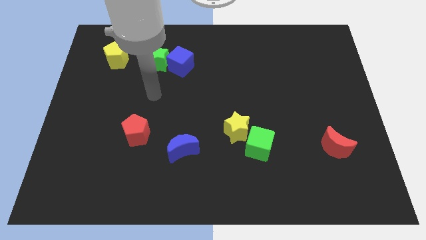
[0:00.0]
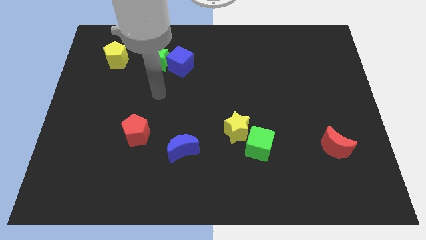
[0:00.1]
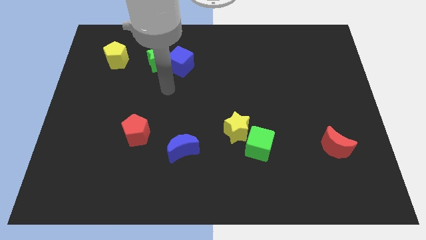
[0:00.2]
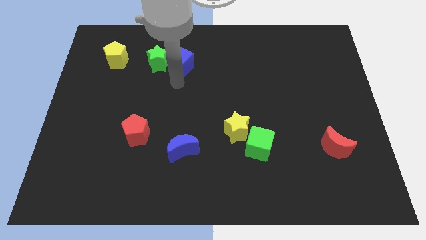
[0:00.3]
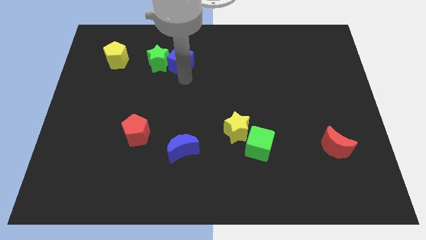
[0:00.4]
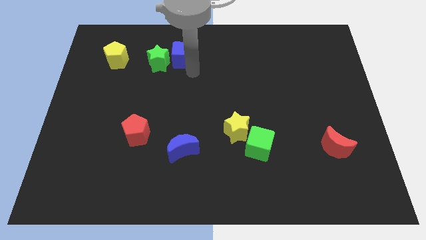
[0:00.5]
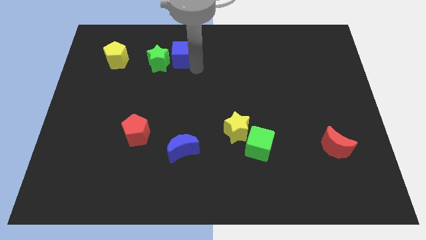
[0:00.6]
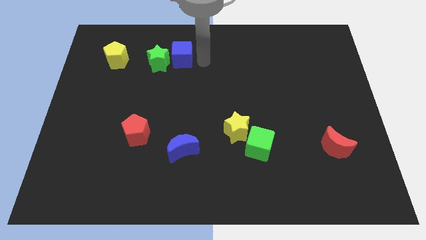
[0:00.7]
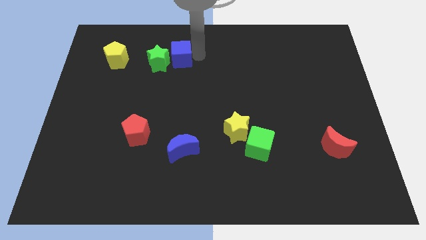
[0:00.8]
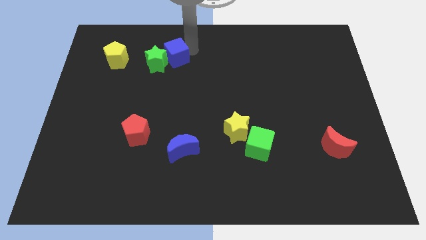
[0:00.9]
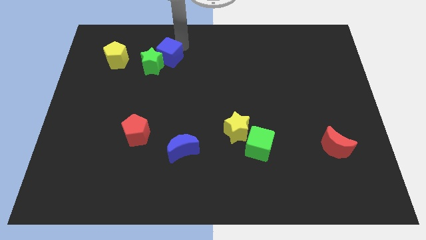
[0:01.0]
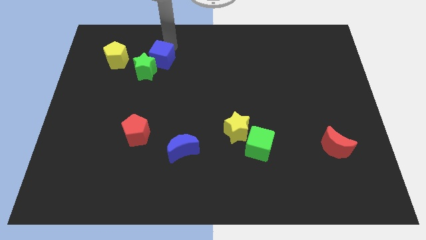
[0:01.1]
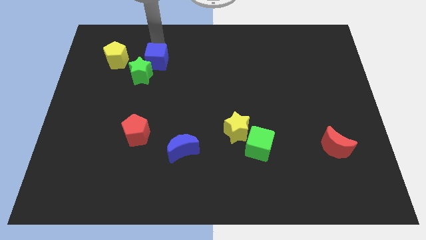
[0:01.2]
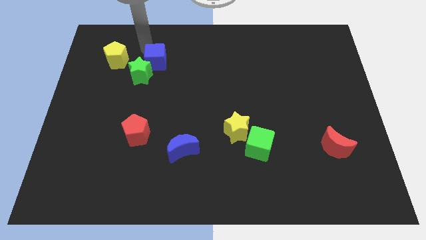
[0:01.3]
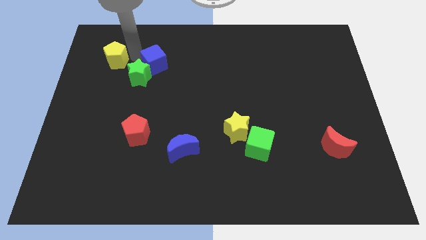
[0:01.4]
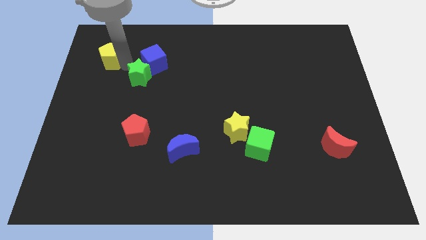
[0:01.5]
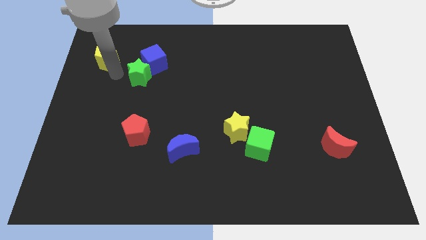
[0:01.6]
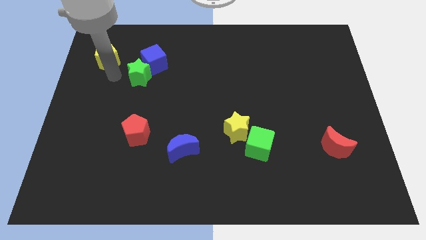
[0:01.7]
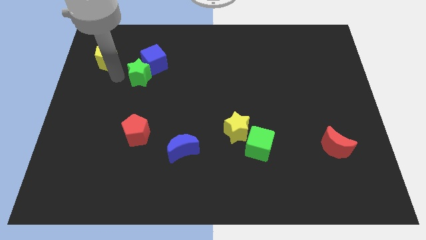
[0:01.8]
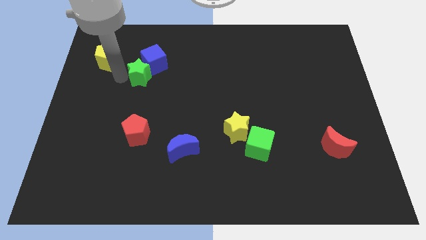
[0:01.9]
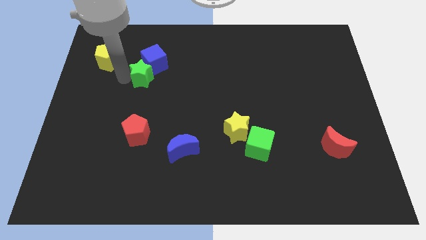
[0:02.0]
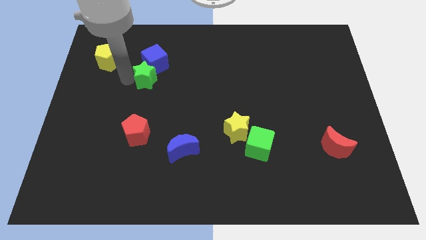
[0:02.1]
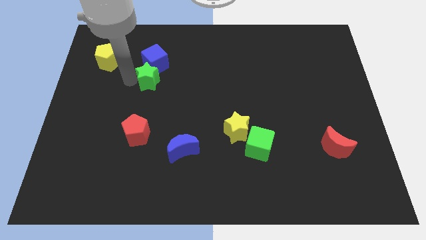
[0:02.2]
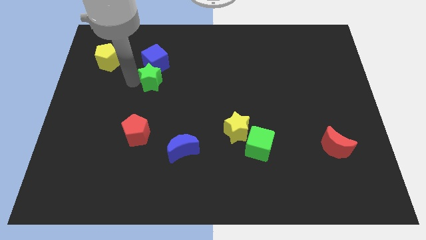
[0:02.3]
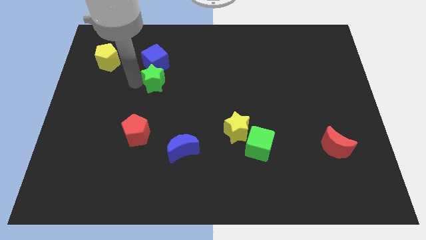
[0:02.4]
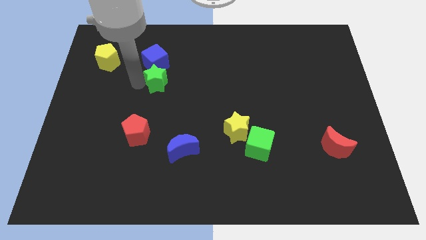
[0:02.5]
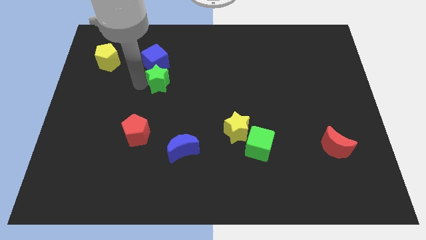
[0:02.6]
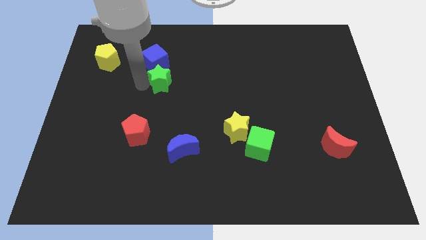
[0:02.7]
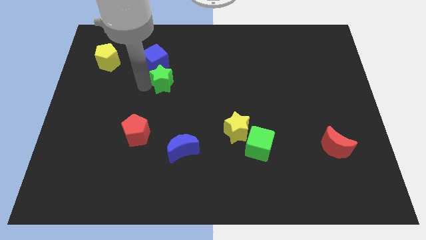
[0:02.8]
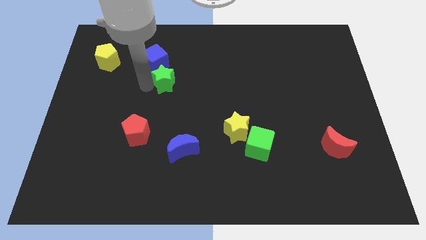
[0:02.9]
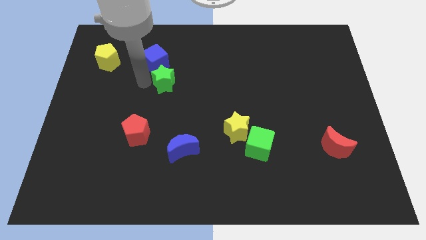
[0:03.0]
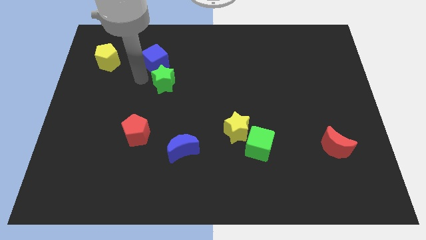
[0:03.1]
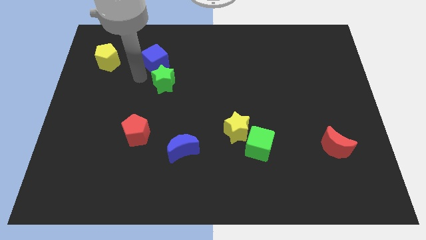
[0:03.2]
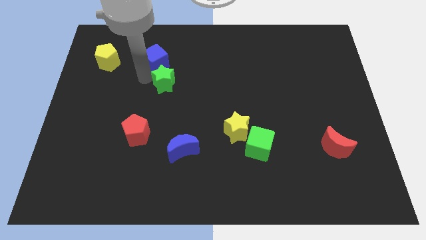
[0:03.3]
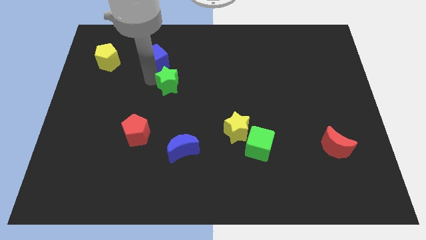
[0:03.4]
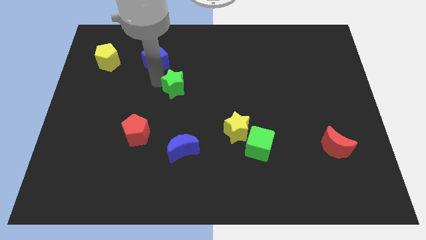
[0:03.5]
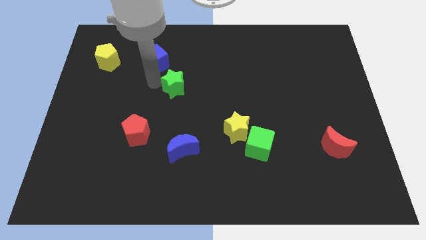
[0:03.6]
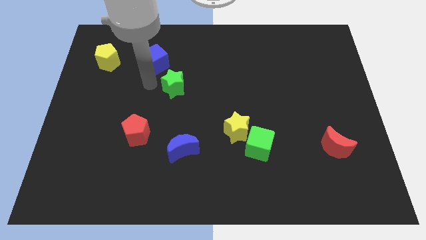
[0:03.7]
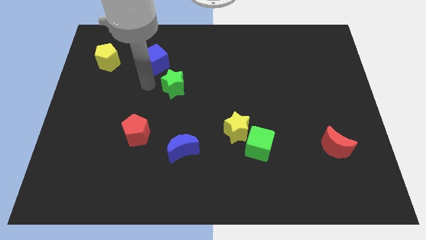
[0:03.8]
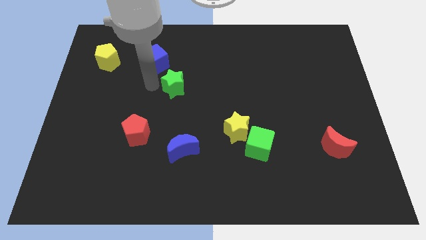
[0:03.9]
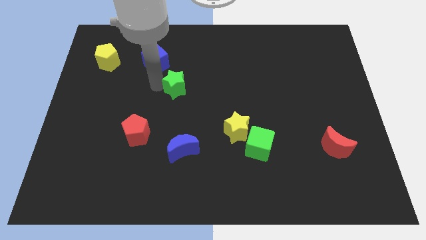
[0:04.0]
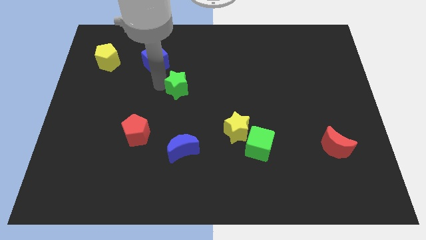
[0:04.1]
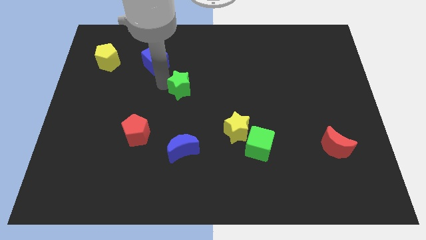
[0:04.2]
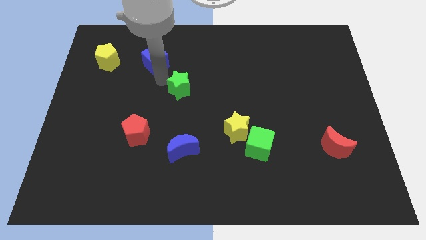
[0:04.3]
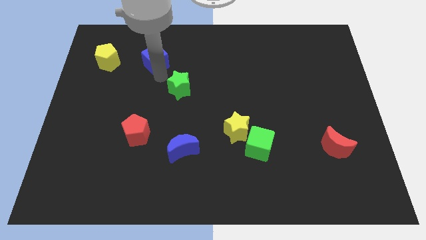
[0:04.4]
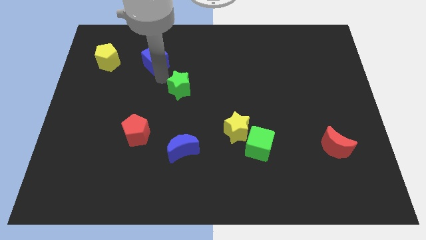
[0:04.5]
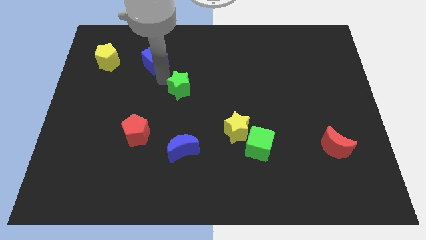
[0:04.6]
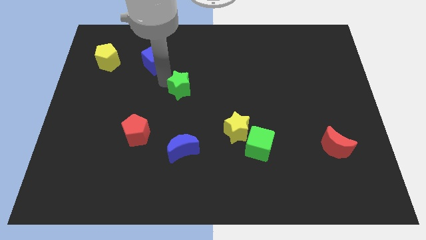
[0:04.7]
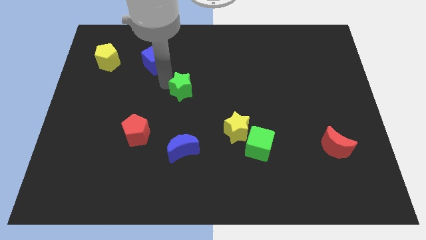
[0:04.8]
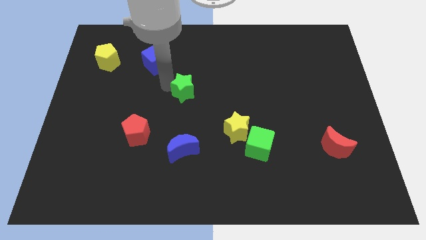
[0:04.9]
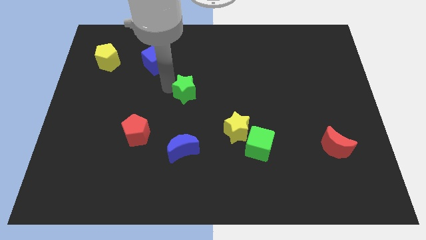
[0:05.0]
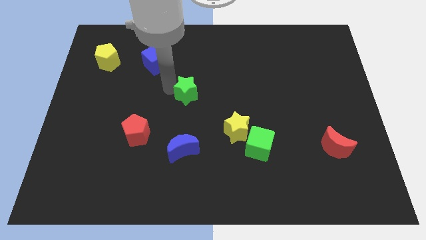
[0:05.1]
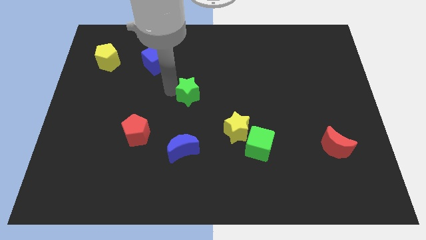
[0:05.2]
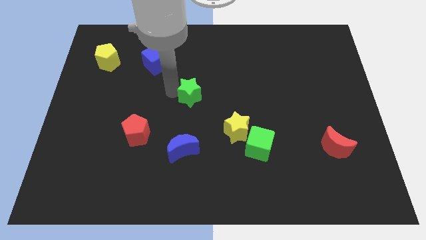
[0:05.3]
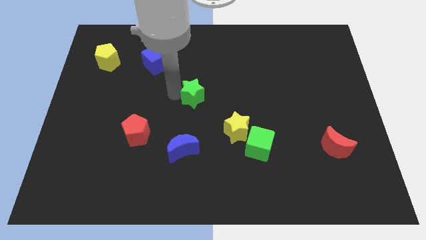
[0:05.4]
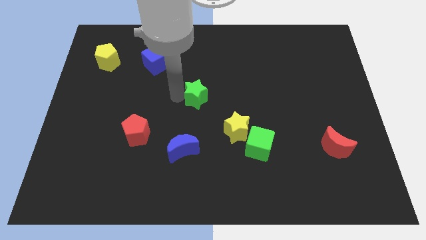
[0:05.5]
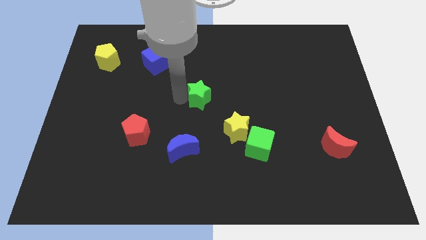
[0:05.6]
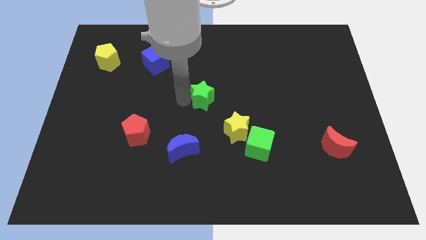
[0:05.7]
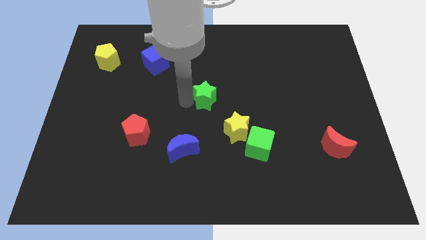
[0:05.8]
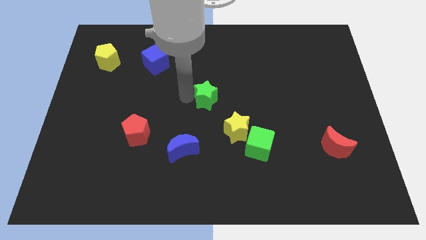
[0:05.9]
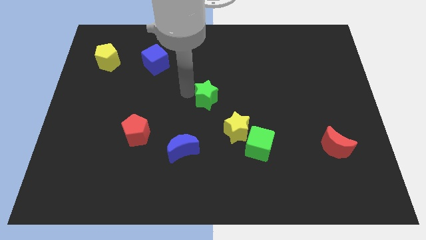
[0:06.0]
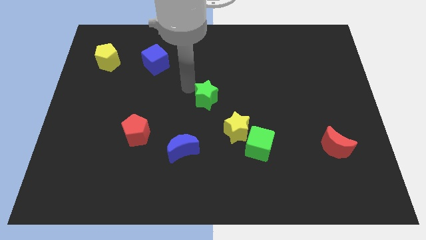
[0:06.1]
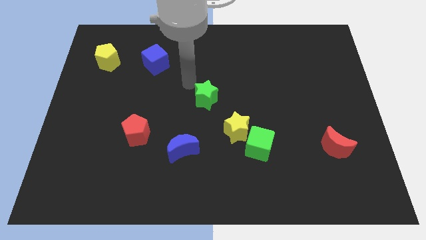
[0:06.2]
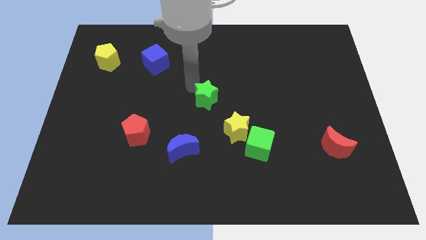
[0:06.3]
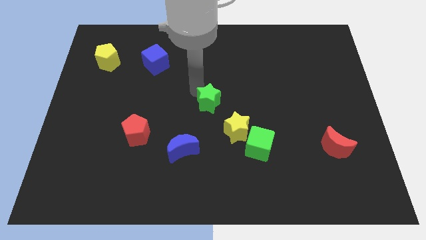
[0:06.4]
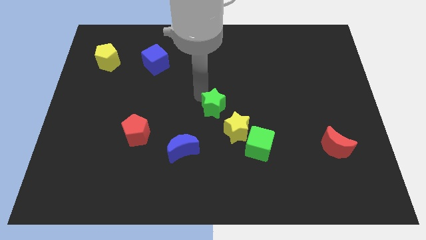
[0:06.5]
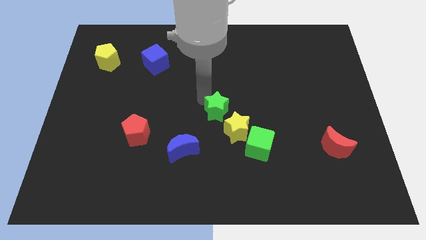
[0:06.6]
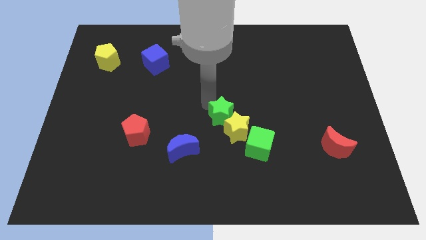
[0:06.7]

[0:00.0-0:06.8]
move the green star next to the yellow star
